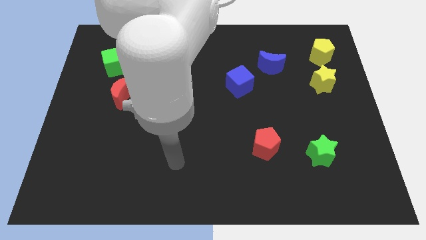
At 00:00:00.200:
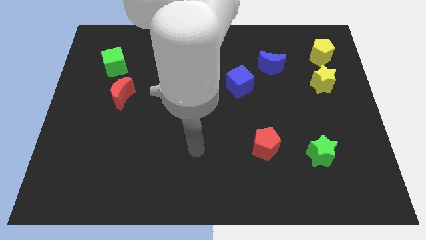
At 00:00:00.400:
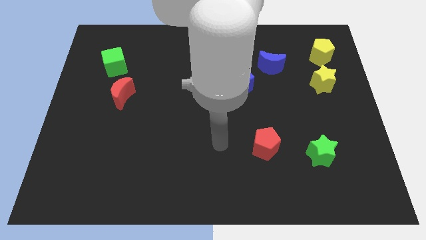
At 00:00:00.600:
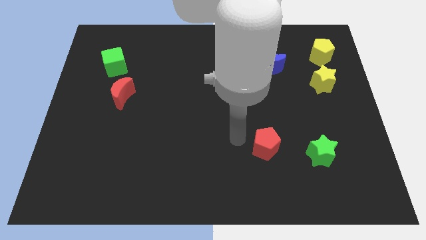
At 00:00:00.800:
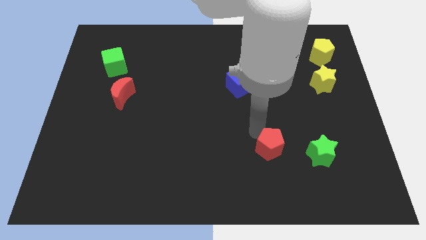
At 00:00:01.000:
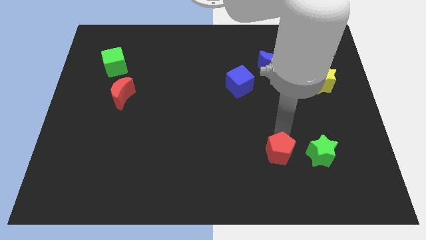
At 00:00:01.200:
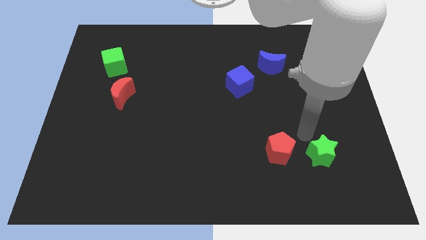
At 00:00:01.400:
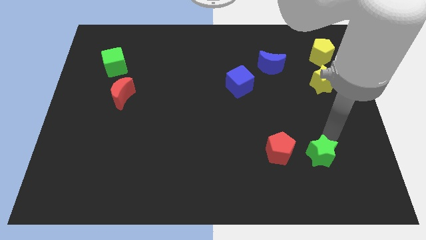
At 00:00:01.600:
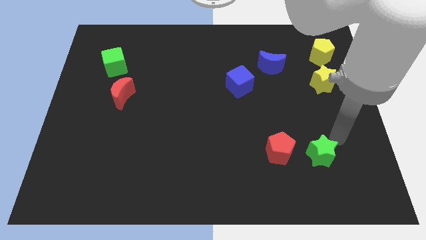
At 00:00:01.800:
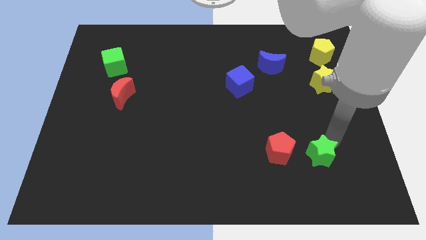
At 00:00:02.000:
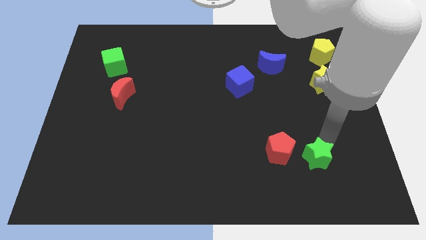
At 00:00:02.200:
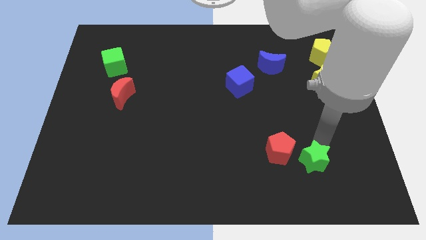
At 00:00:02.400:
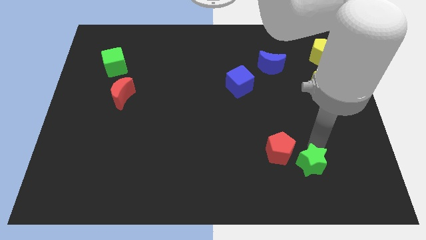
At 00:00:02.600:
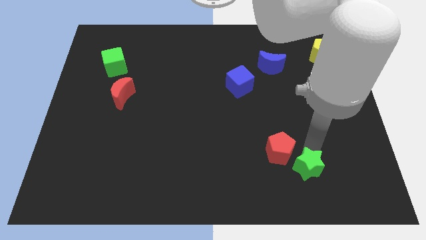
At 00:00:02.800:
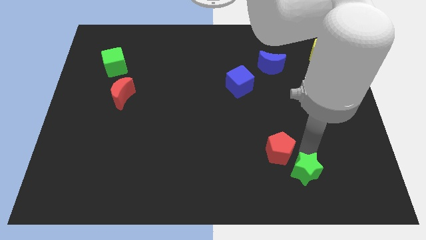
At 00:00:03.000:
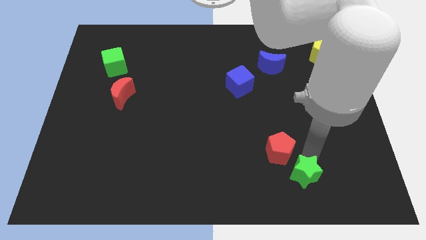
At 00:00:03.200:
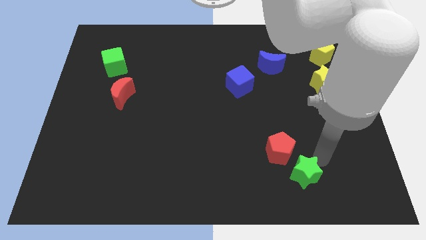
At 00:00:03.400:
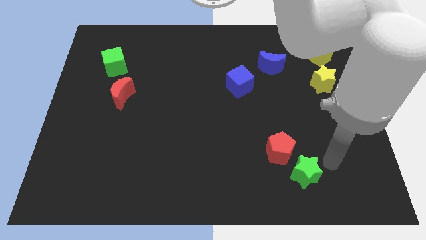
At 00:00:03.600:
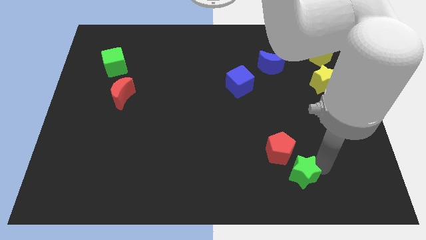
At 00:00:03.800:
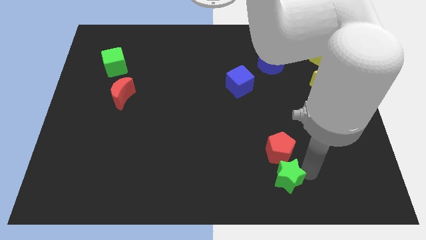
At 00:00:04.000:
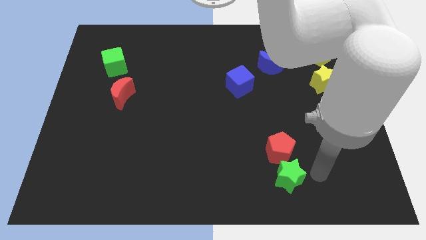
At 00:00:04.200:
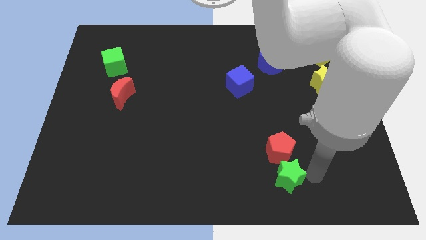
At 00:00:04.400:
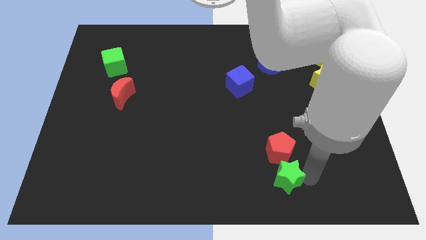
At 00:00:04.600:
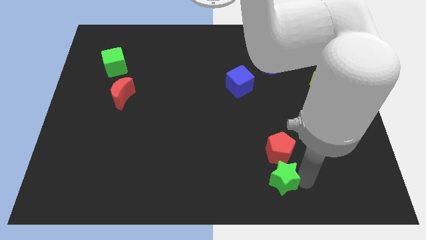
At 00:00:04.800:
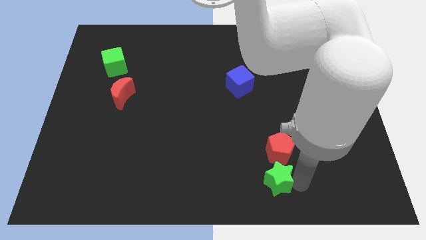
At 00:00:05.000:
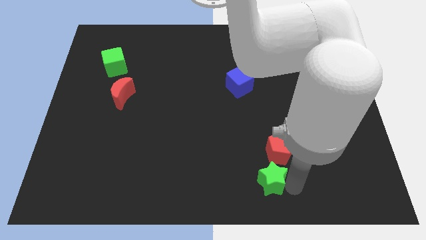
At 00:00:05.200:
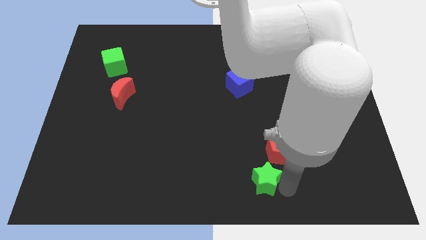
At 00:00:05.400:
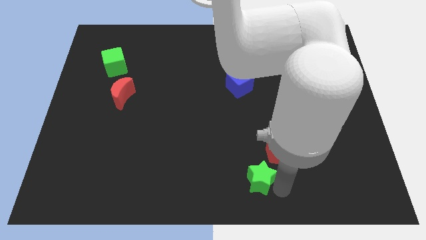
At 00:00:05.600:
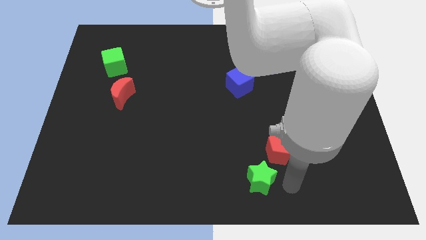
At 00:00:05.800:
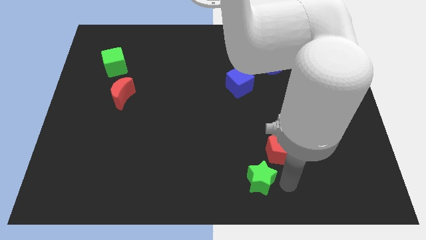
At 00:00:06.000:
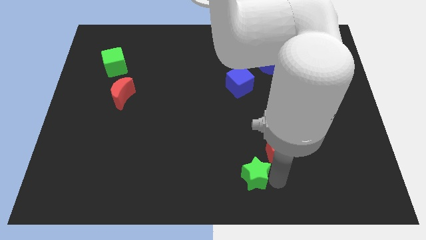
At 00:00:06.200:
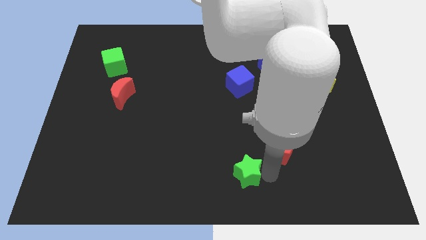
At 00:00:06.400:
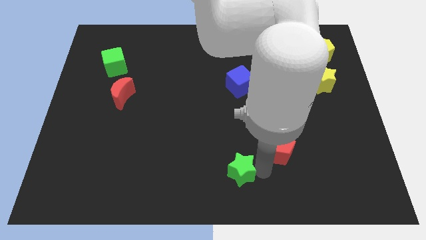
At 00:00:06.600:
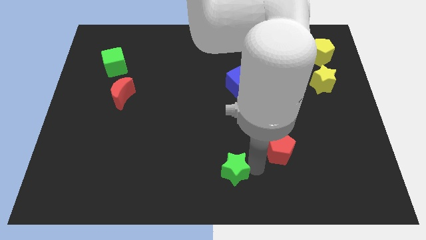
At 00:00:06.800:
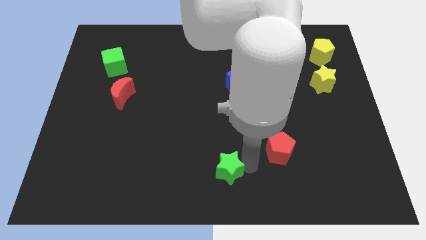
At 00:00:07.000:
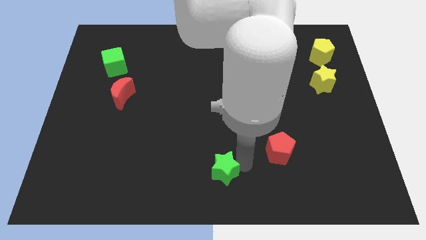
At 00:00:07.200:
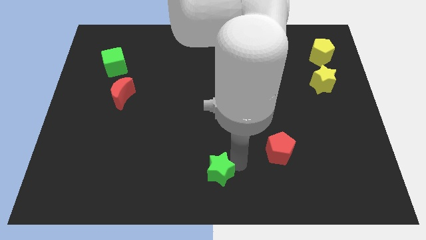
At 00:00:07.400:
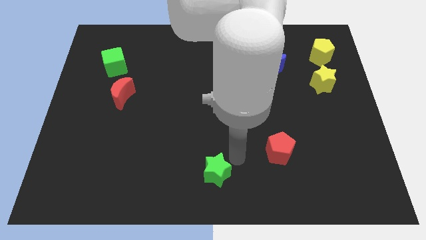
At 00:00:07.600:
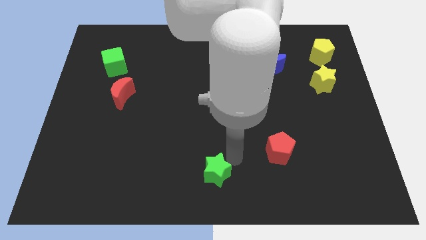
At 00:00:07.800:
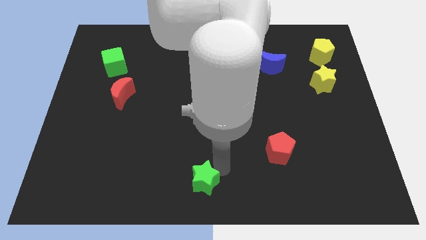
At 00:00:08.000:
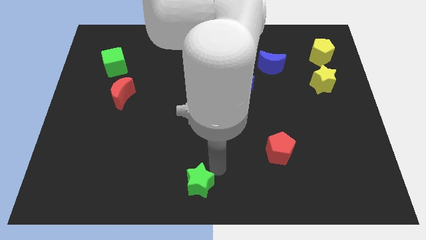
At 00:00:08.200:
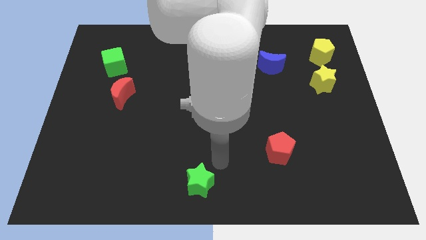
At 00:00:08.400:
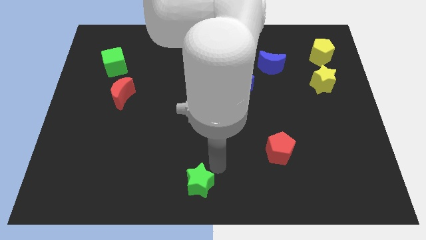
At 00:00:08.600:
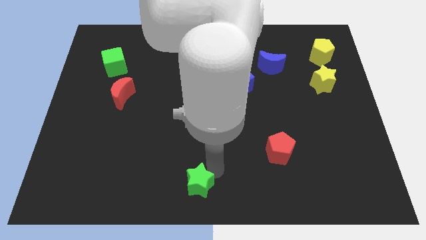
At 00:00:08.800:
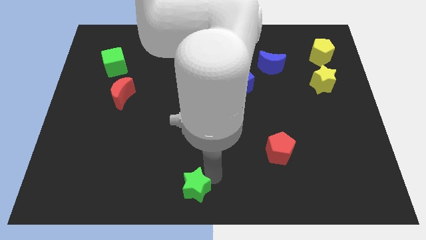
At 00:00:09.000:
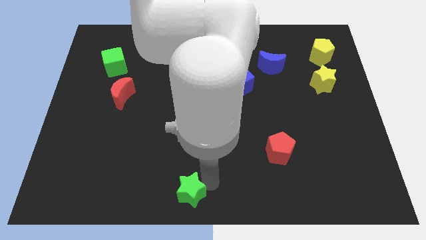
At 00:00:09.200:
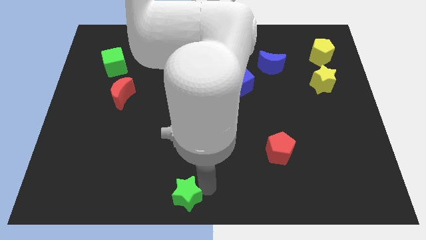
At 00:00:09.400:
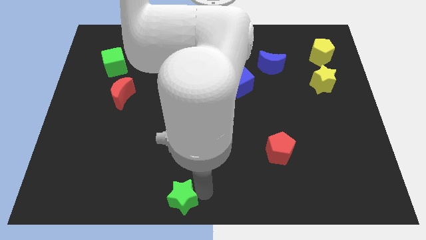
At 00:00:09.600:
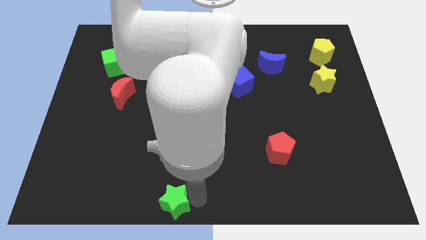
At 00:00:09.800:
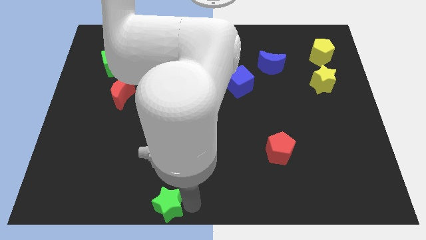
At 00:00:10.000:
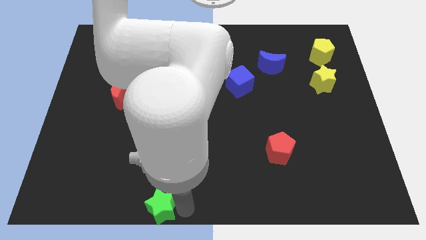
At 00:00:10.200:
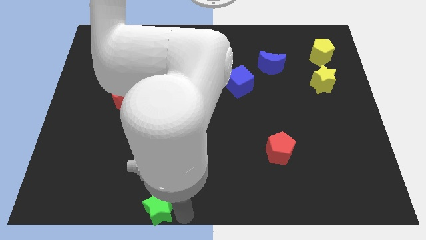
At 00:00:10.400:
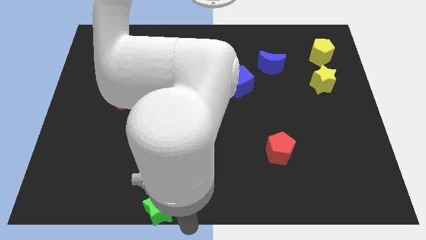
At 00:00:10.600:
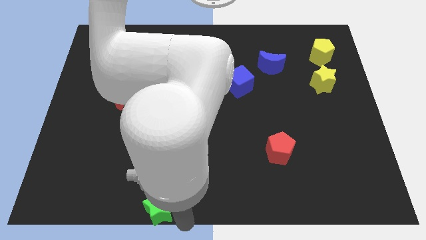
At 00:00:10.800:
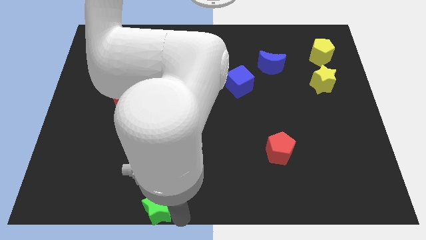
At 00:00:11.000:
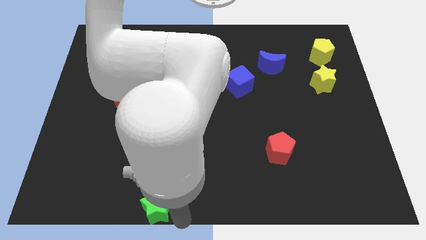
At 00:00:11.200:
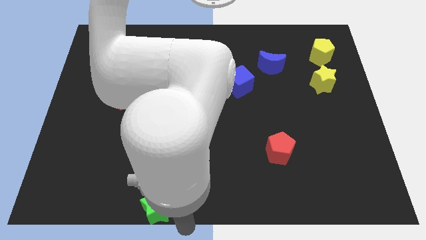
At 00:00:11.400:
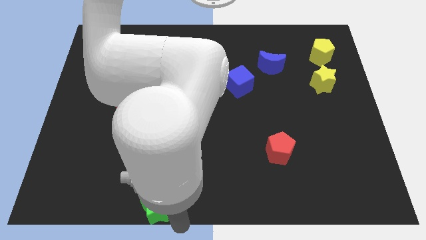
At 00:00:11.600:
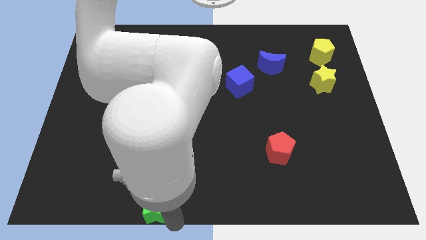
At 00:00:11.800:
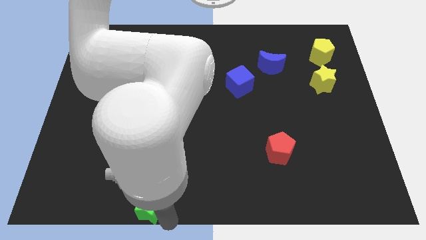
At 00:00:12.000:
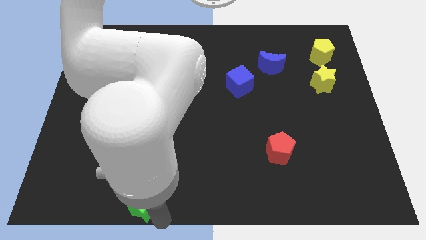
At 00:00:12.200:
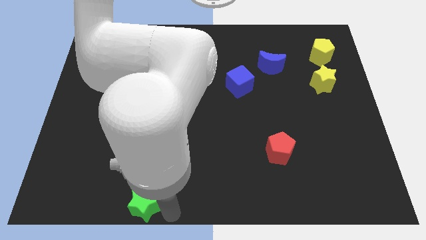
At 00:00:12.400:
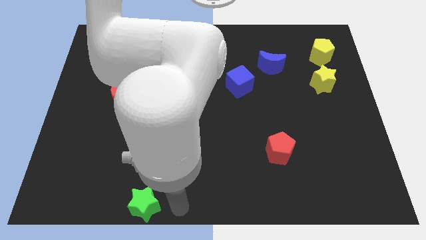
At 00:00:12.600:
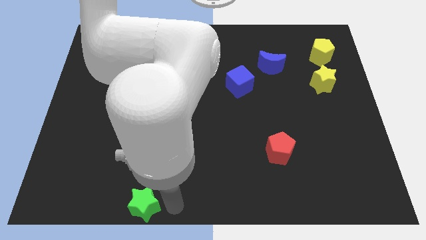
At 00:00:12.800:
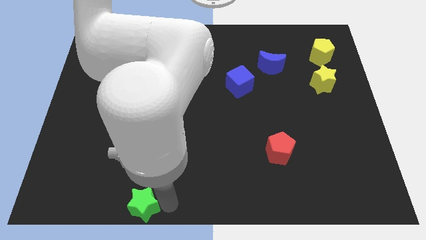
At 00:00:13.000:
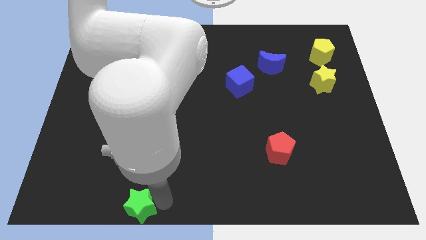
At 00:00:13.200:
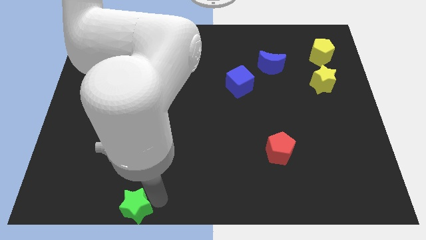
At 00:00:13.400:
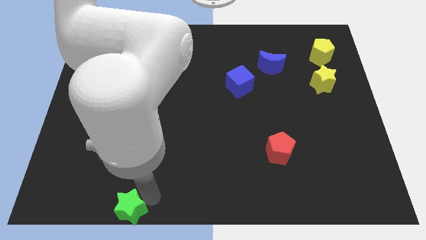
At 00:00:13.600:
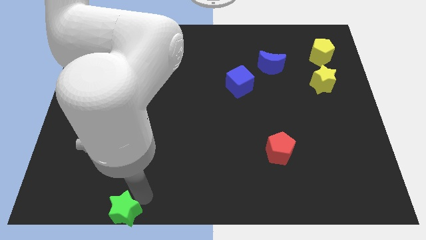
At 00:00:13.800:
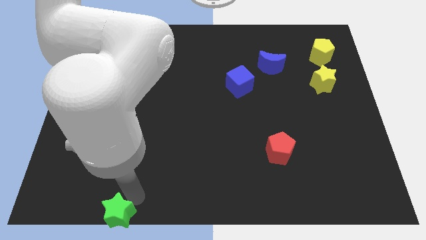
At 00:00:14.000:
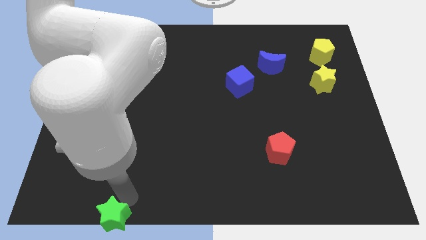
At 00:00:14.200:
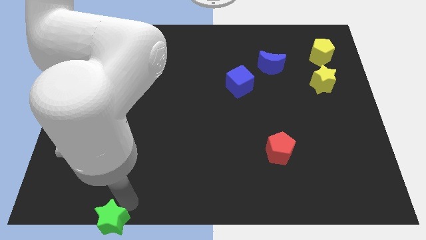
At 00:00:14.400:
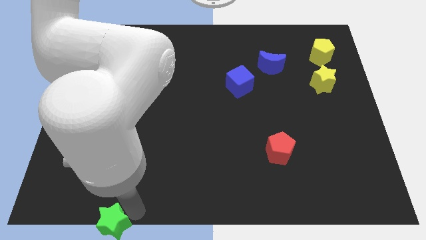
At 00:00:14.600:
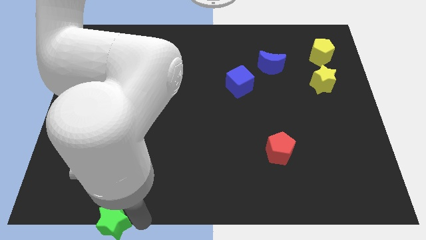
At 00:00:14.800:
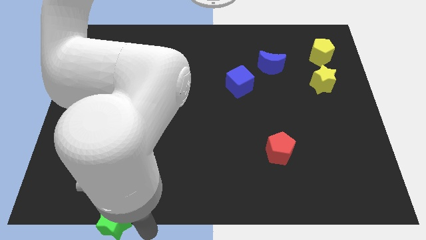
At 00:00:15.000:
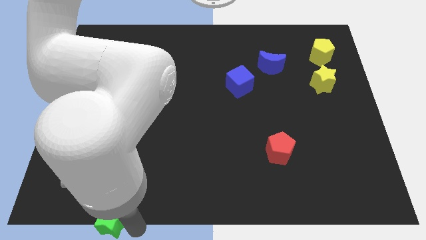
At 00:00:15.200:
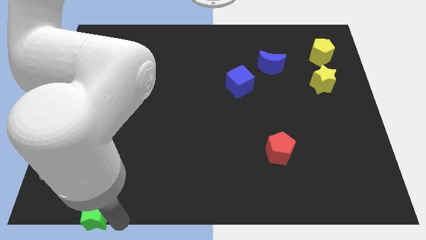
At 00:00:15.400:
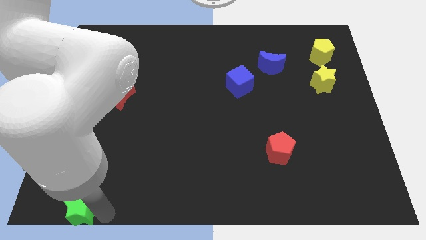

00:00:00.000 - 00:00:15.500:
put the green star to the bottom left
